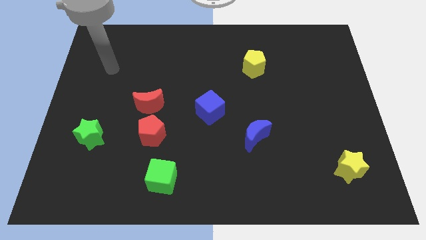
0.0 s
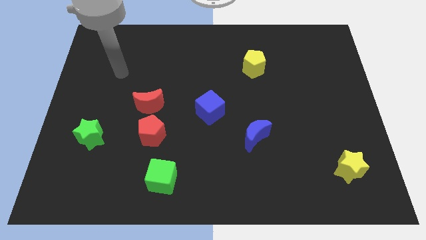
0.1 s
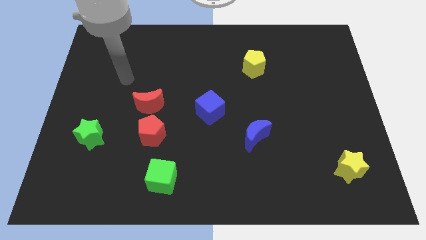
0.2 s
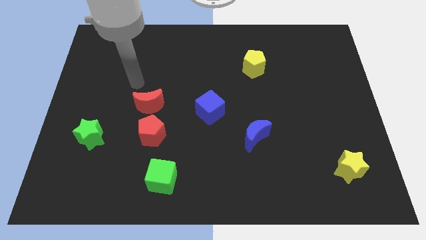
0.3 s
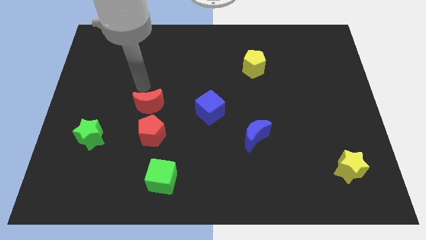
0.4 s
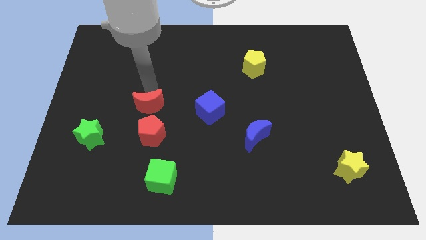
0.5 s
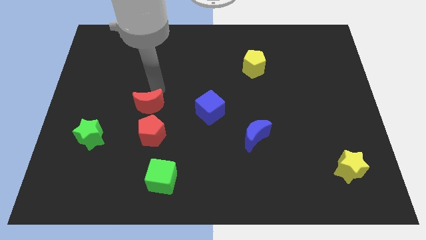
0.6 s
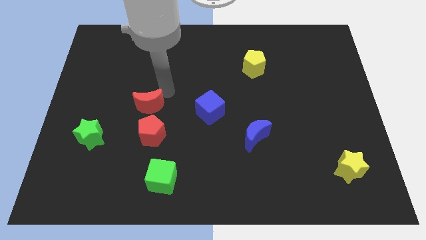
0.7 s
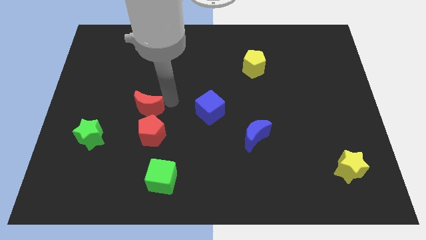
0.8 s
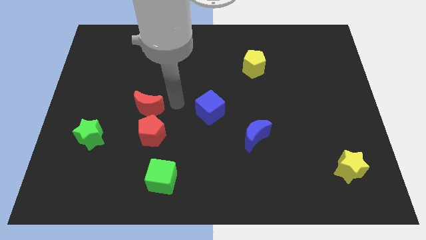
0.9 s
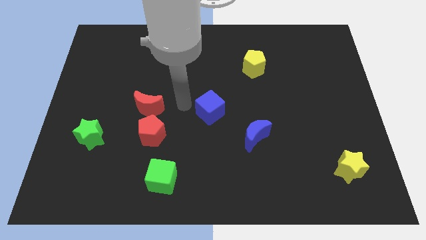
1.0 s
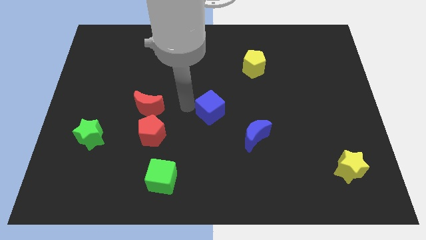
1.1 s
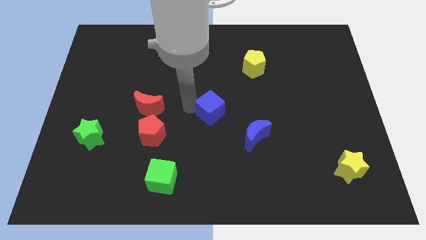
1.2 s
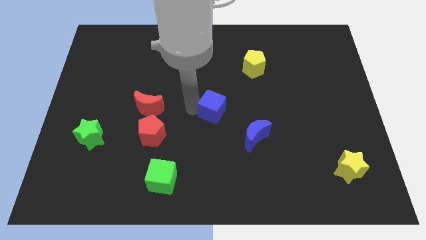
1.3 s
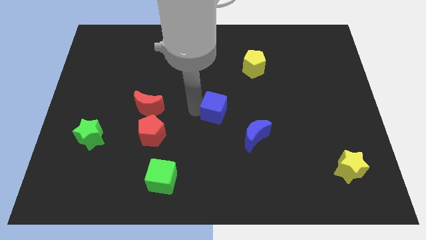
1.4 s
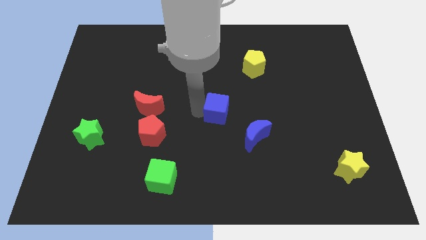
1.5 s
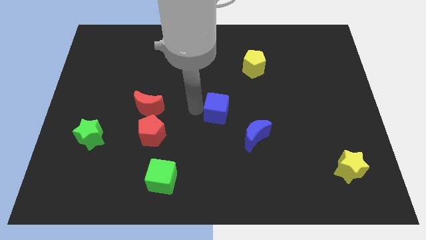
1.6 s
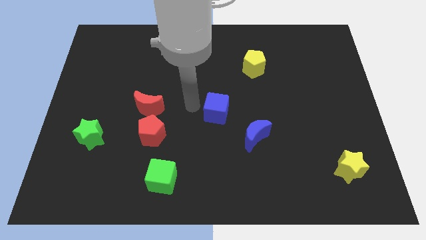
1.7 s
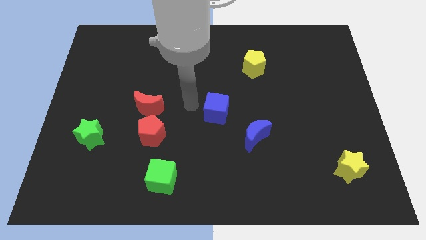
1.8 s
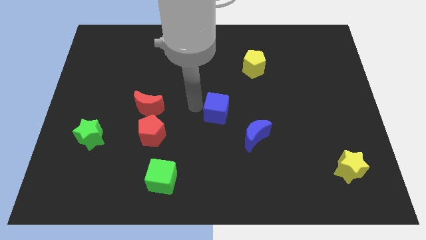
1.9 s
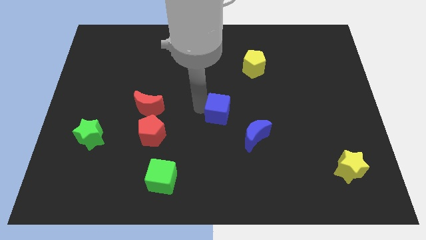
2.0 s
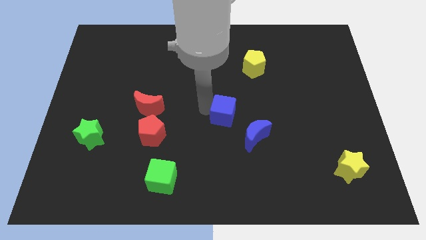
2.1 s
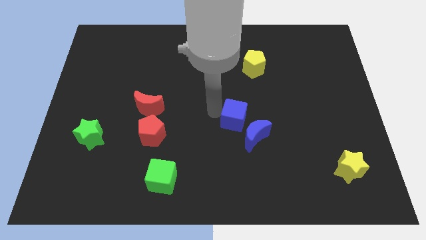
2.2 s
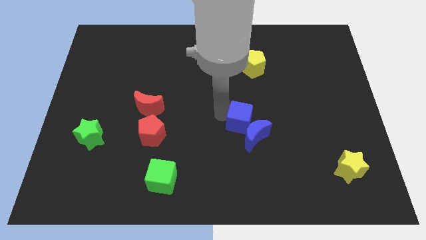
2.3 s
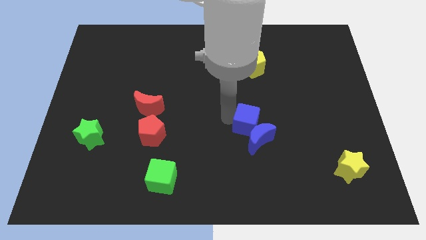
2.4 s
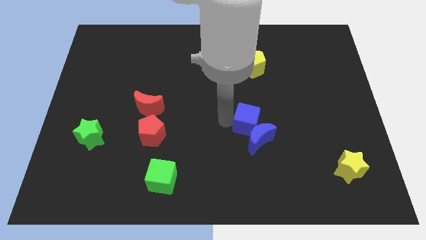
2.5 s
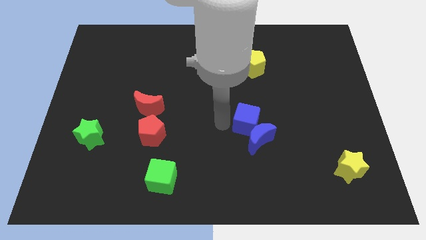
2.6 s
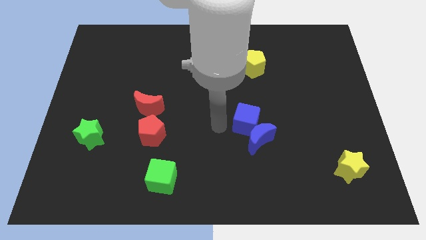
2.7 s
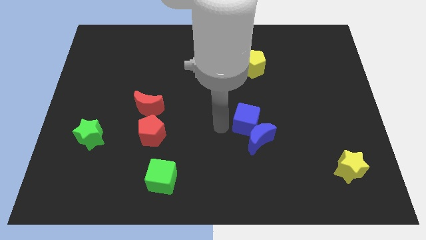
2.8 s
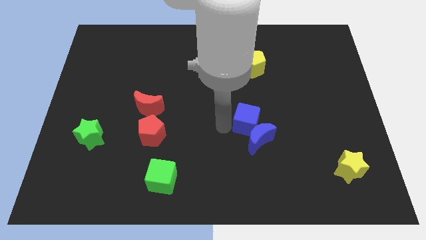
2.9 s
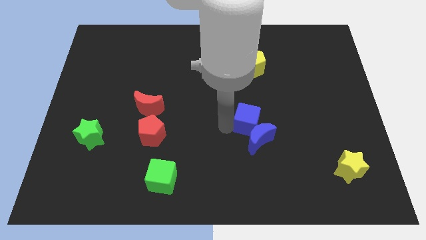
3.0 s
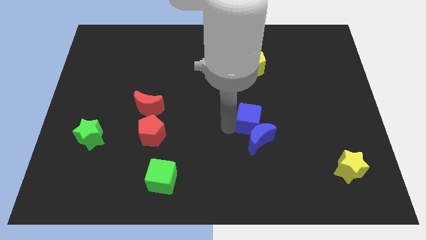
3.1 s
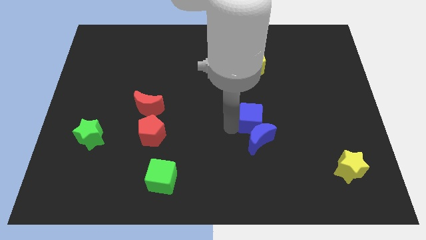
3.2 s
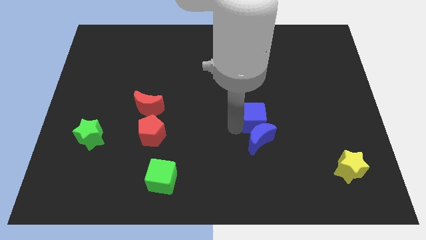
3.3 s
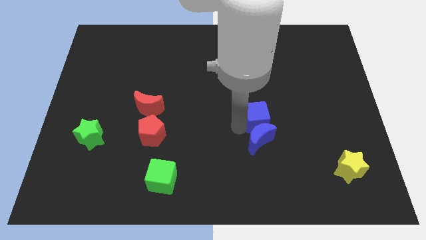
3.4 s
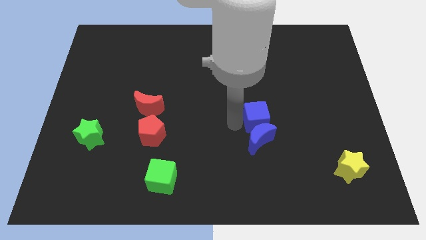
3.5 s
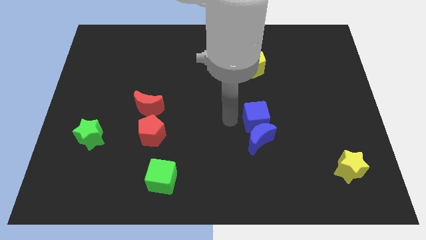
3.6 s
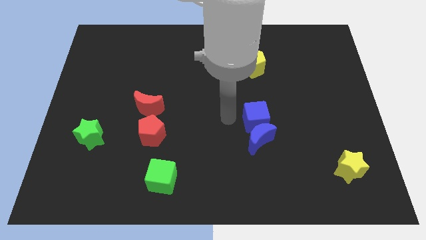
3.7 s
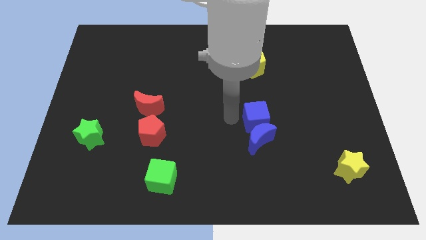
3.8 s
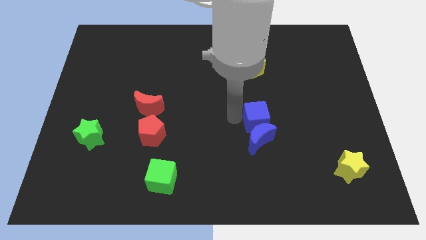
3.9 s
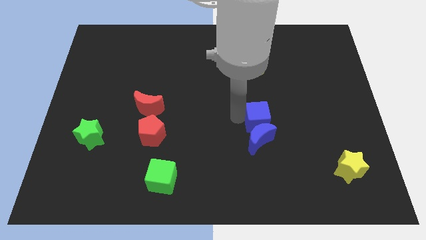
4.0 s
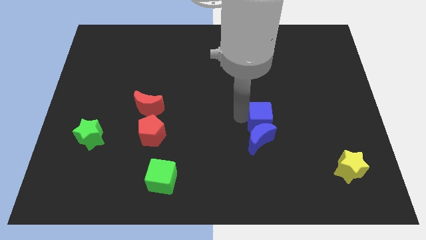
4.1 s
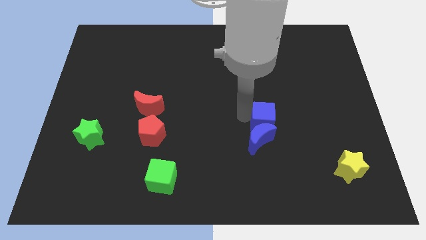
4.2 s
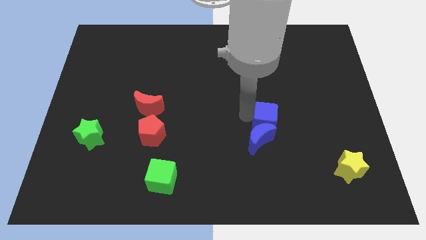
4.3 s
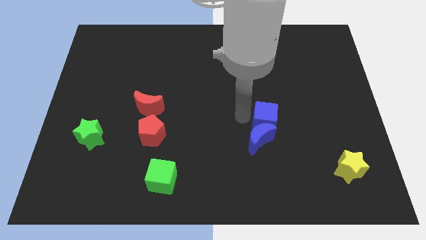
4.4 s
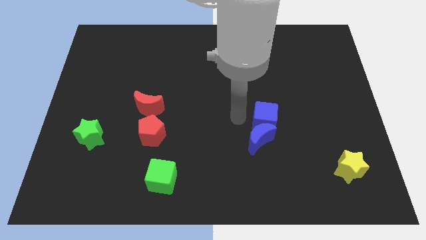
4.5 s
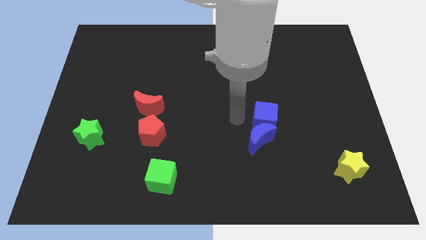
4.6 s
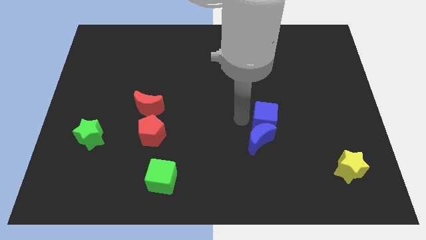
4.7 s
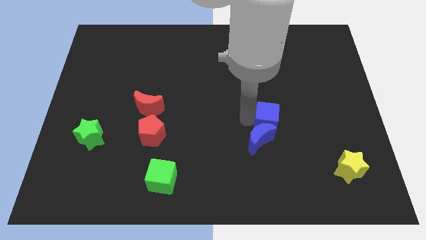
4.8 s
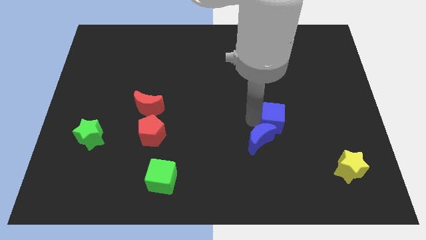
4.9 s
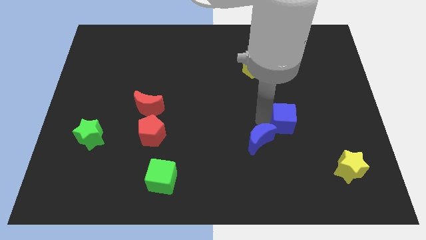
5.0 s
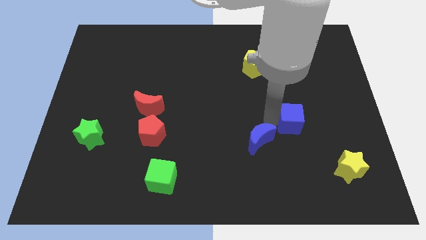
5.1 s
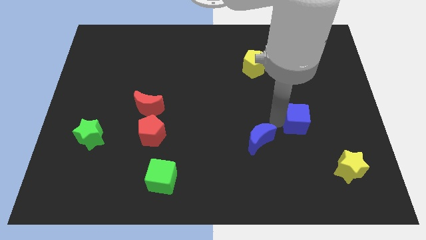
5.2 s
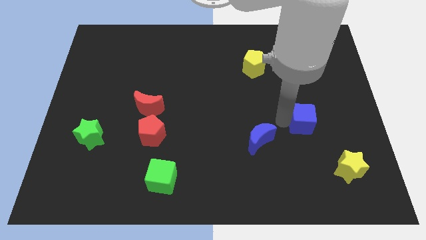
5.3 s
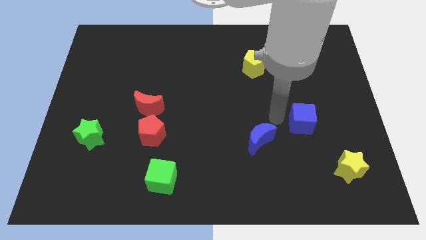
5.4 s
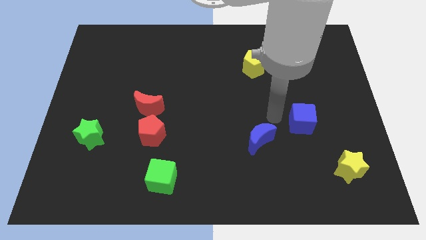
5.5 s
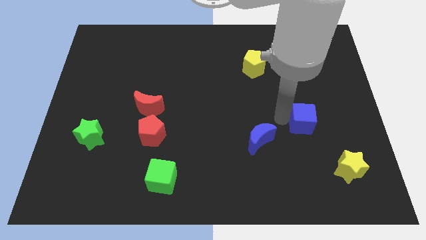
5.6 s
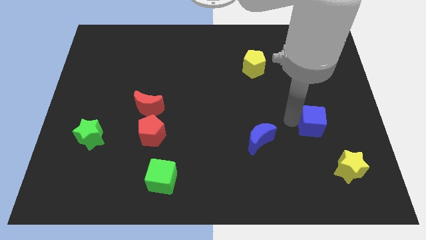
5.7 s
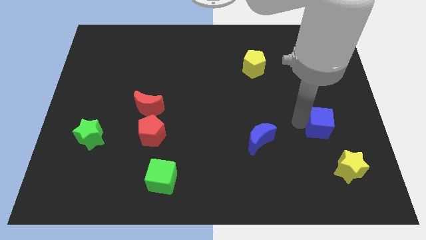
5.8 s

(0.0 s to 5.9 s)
put the blue cube to the top side of the yellow star

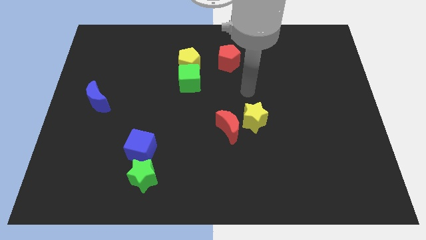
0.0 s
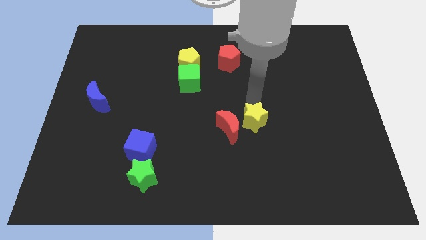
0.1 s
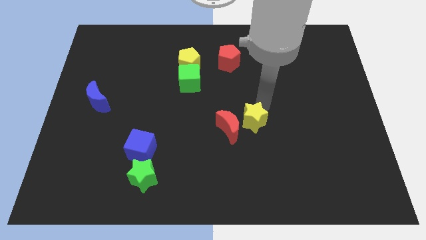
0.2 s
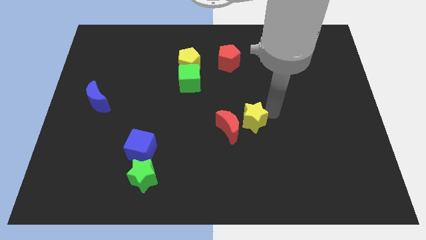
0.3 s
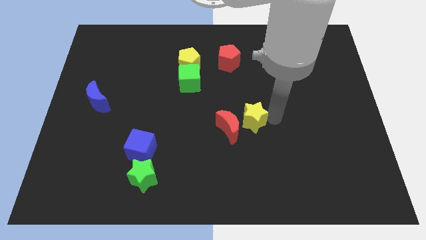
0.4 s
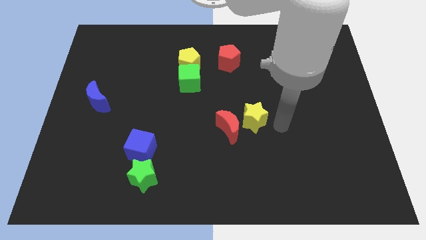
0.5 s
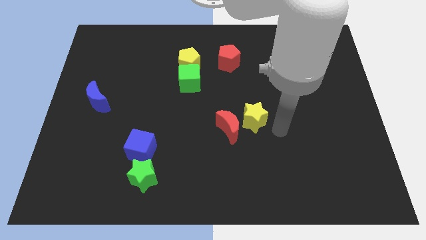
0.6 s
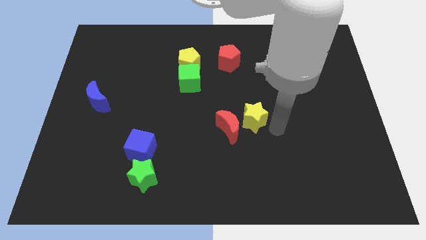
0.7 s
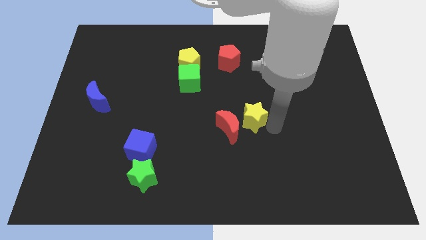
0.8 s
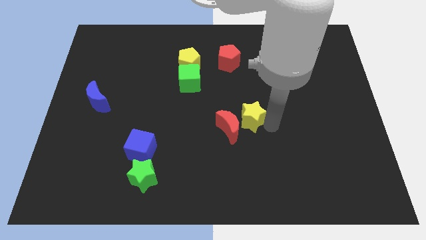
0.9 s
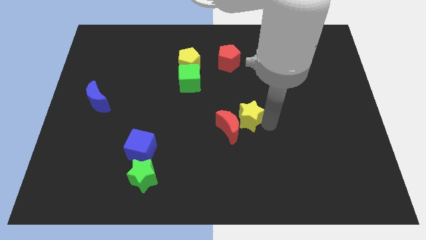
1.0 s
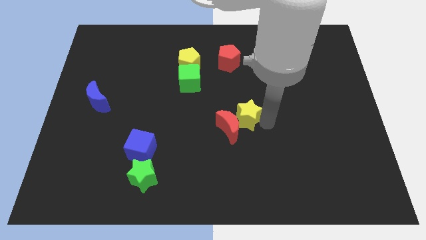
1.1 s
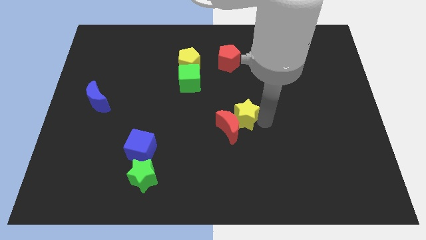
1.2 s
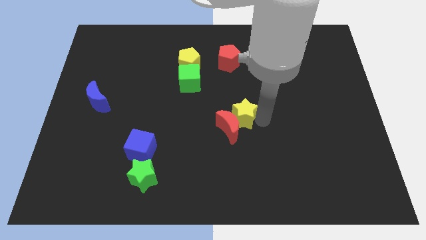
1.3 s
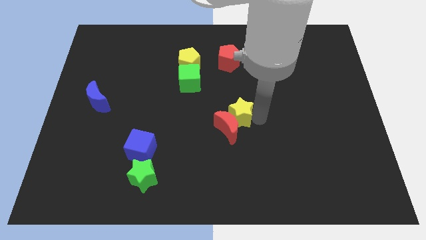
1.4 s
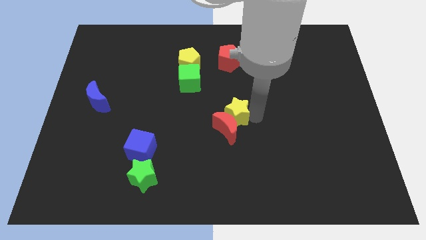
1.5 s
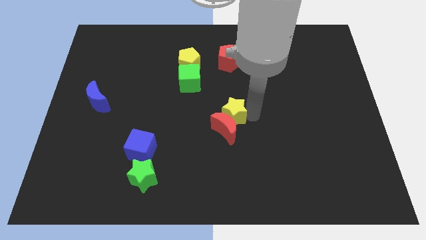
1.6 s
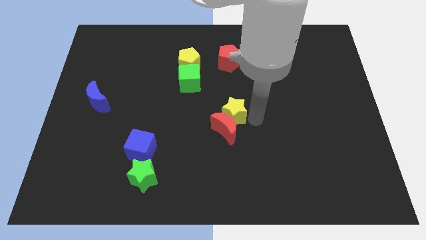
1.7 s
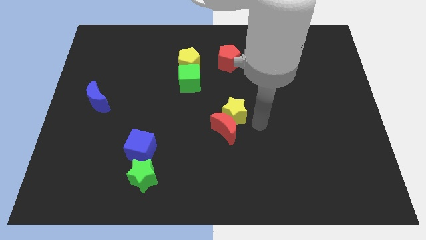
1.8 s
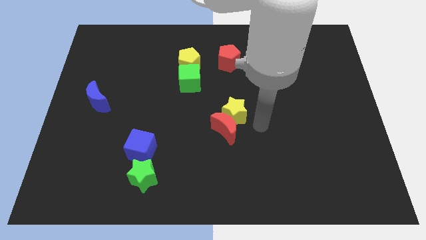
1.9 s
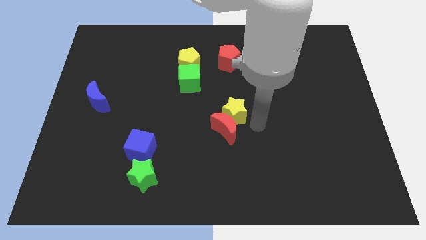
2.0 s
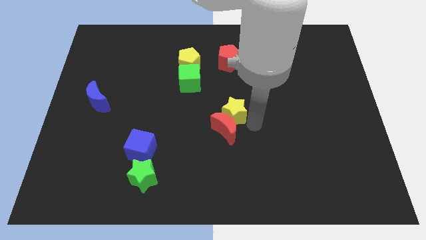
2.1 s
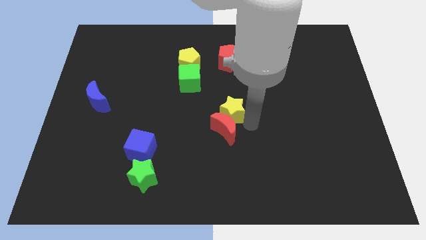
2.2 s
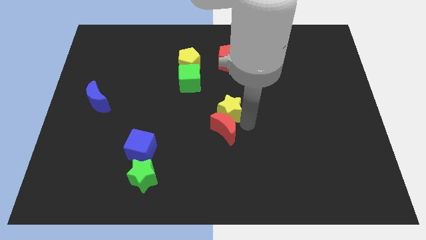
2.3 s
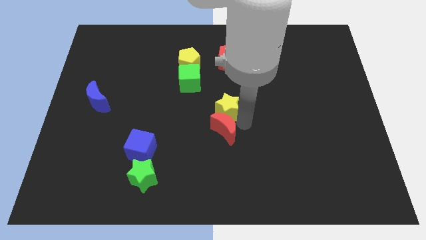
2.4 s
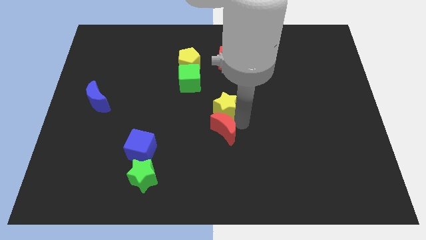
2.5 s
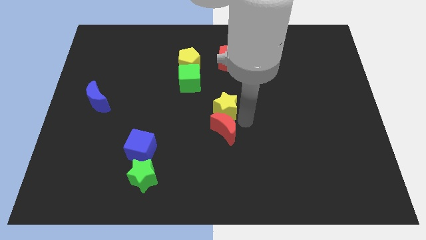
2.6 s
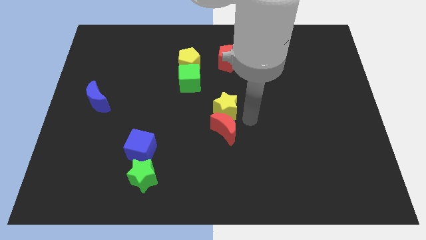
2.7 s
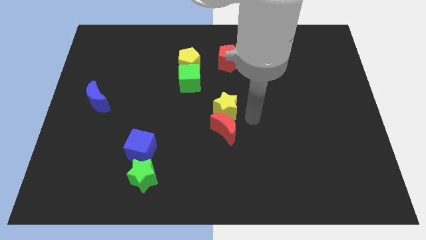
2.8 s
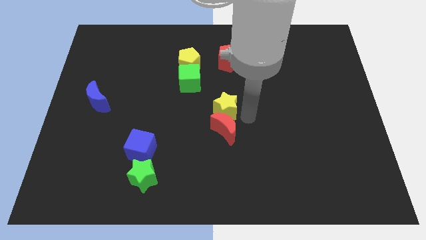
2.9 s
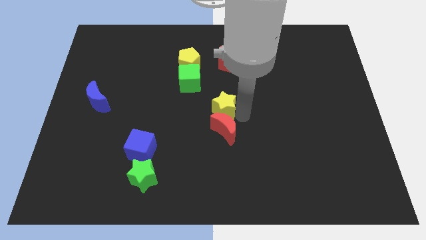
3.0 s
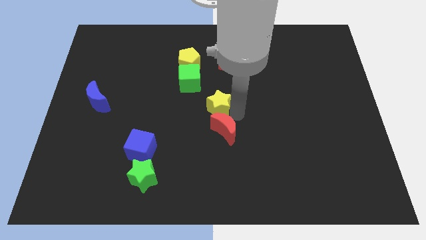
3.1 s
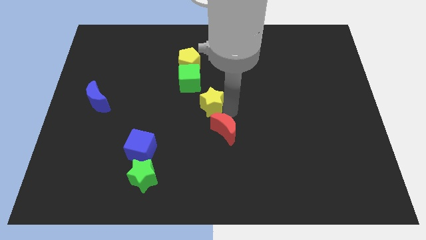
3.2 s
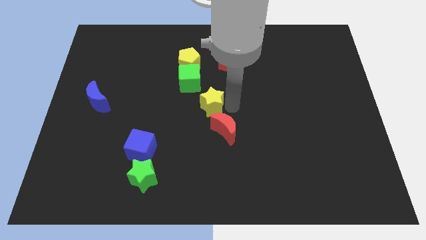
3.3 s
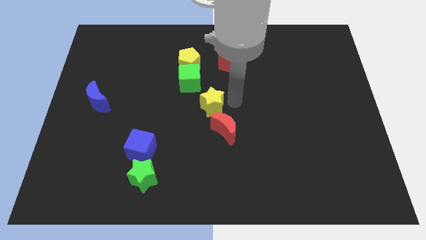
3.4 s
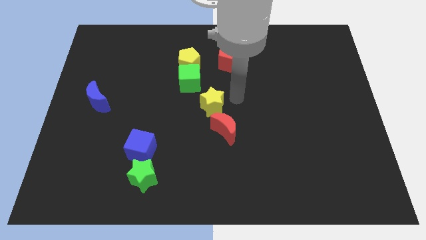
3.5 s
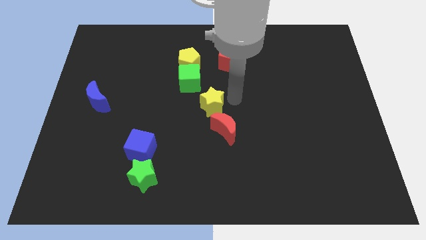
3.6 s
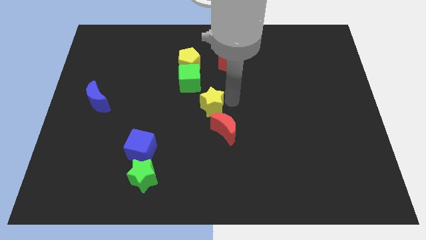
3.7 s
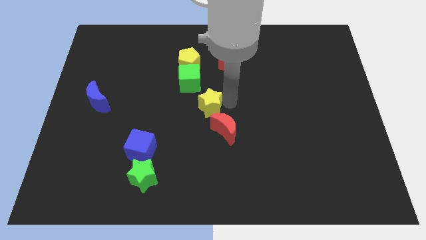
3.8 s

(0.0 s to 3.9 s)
move the yellow star below the green cube
